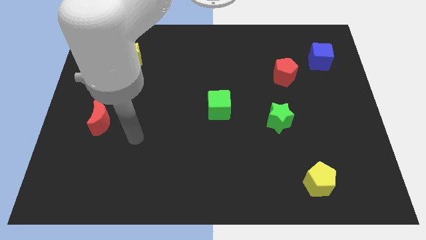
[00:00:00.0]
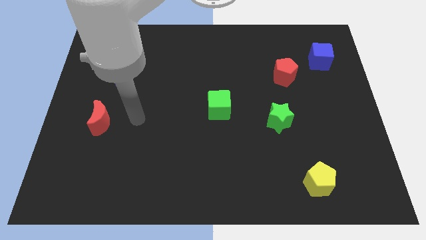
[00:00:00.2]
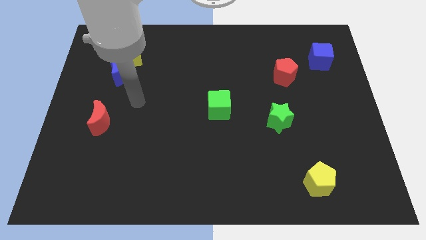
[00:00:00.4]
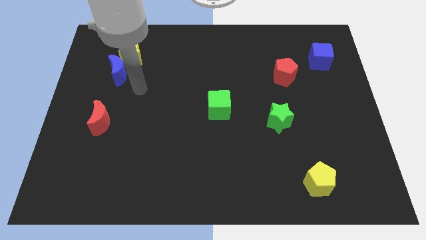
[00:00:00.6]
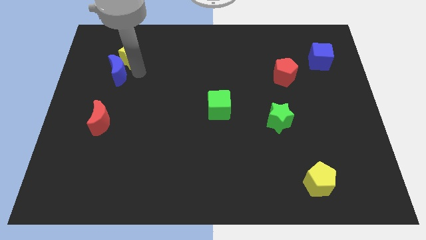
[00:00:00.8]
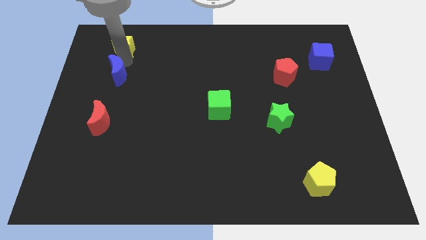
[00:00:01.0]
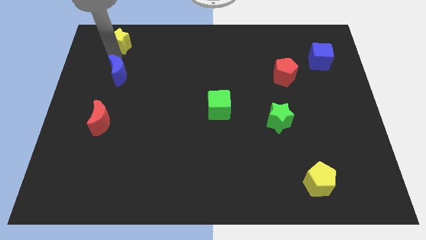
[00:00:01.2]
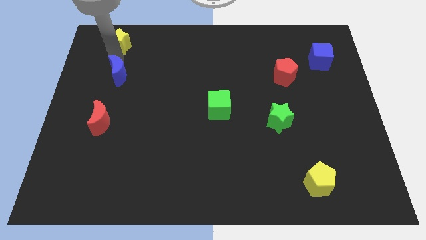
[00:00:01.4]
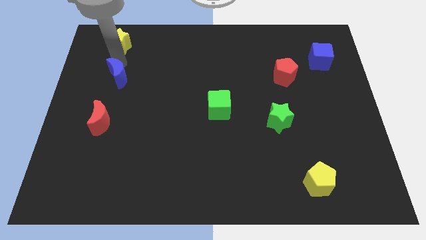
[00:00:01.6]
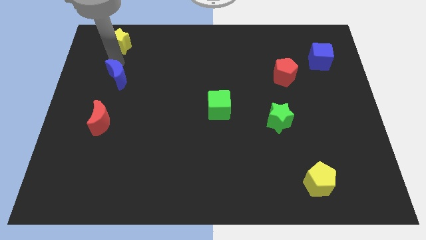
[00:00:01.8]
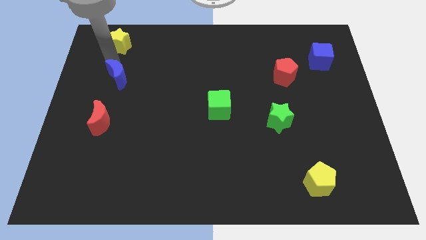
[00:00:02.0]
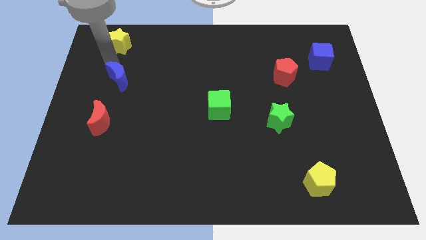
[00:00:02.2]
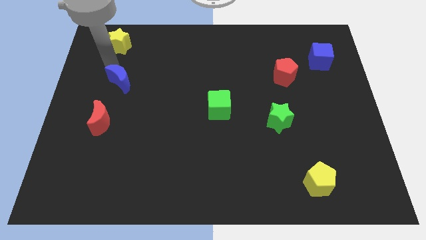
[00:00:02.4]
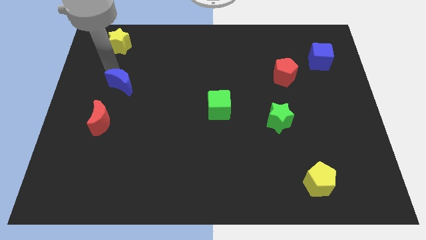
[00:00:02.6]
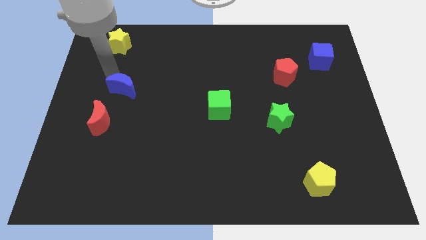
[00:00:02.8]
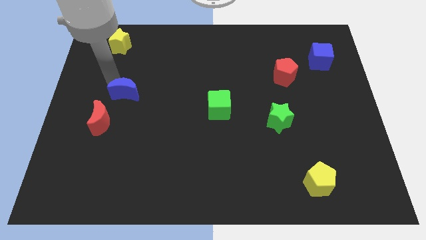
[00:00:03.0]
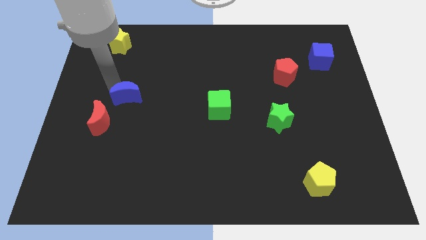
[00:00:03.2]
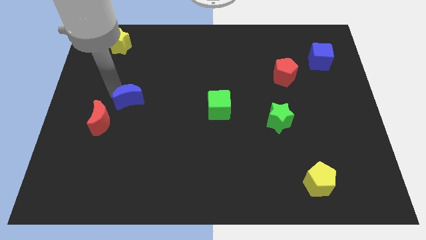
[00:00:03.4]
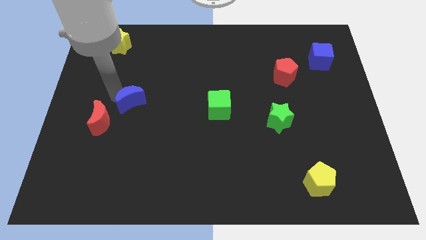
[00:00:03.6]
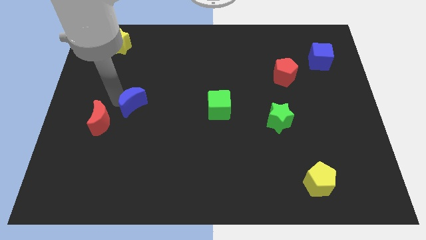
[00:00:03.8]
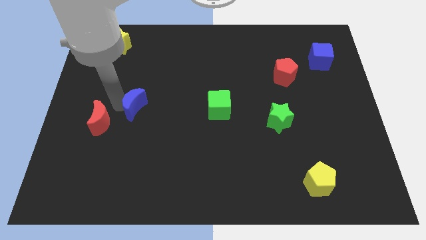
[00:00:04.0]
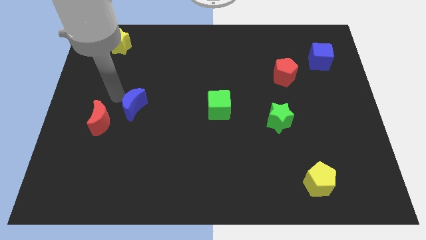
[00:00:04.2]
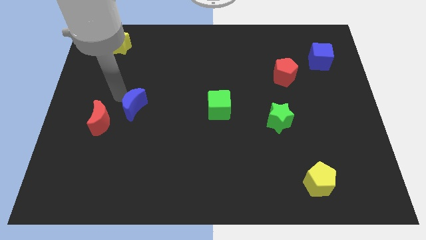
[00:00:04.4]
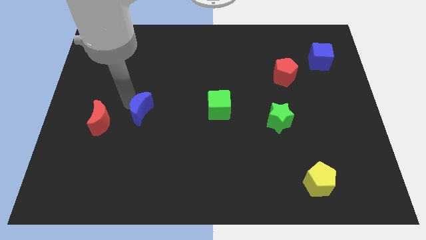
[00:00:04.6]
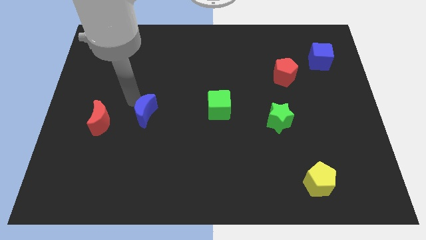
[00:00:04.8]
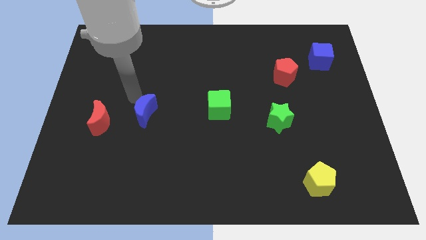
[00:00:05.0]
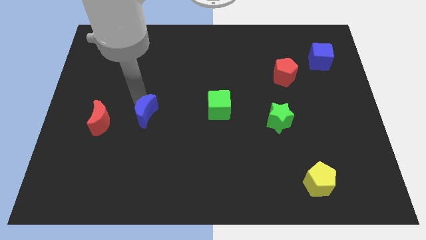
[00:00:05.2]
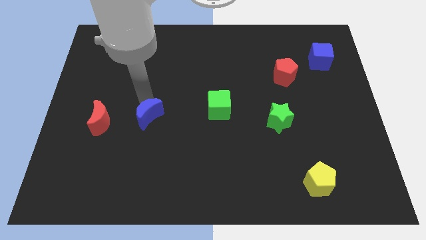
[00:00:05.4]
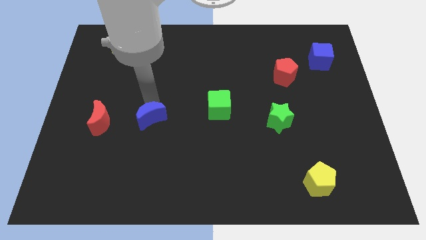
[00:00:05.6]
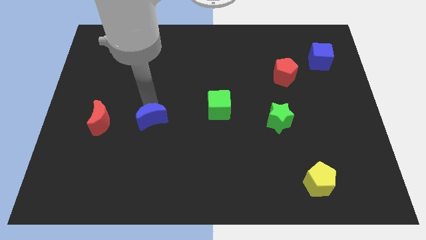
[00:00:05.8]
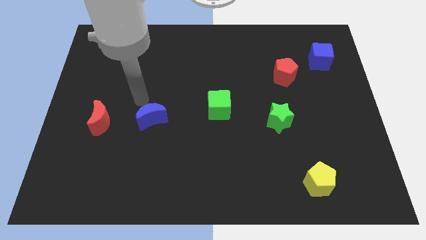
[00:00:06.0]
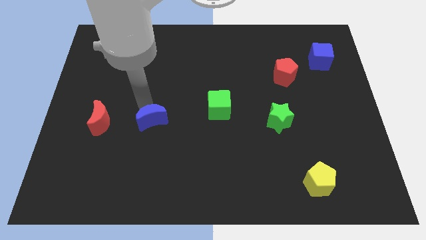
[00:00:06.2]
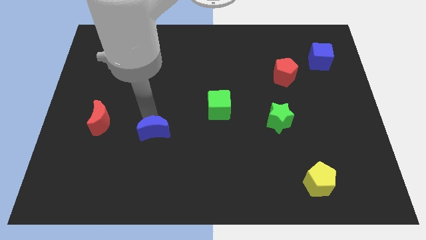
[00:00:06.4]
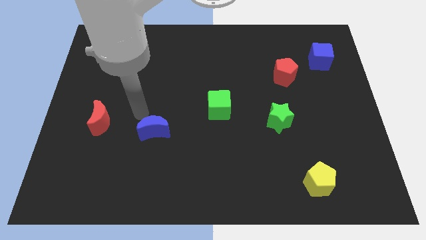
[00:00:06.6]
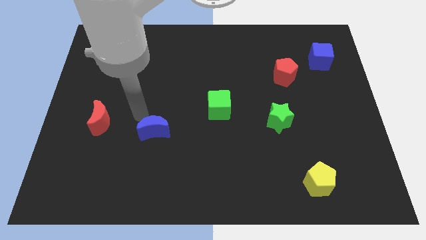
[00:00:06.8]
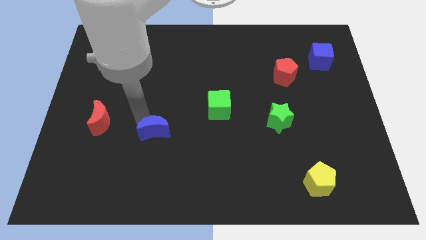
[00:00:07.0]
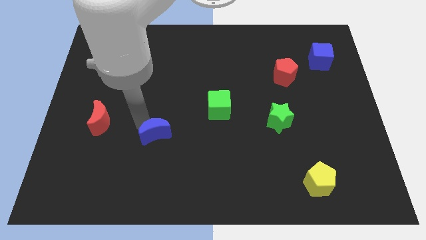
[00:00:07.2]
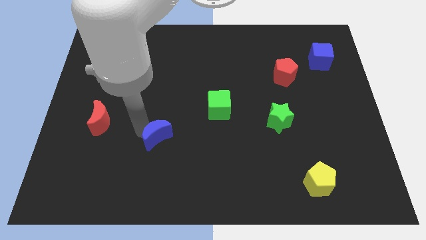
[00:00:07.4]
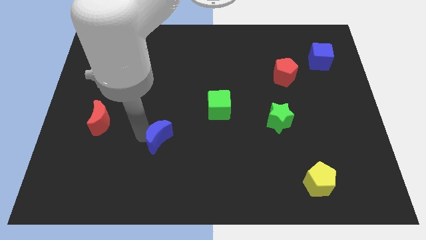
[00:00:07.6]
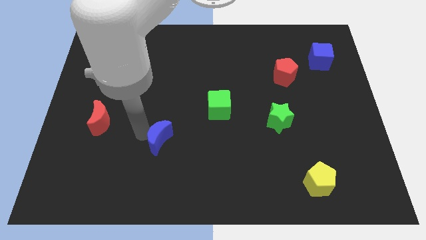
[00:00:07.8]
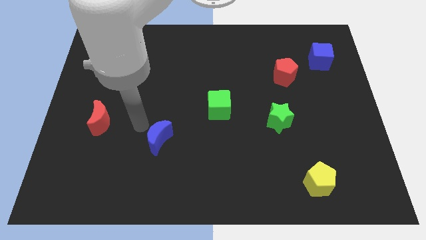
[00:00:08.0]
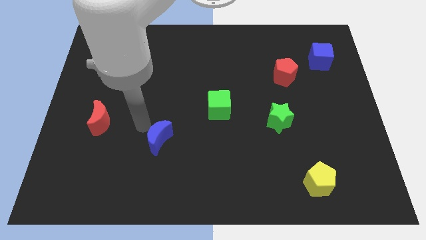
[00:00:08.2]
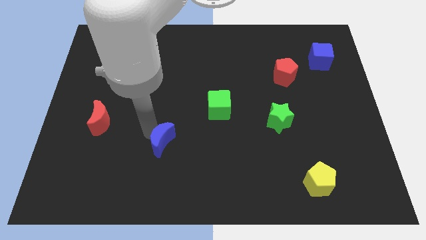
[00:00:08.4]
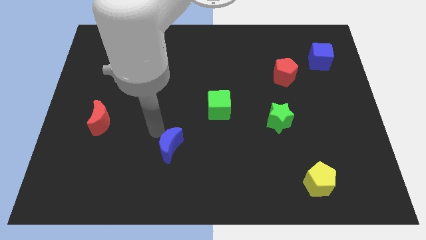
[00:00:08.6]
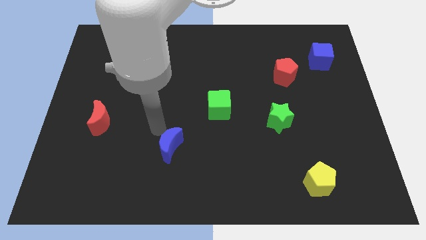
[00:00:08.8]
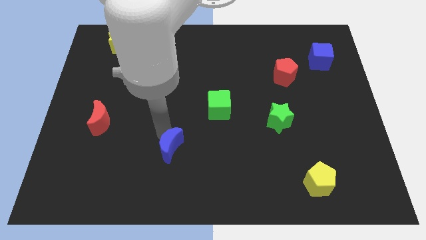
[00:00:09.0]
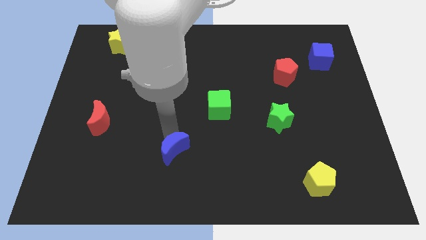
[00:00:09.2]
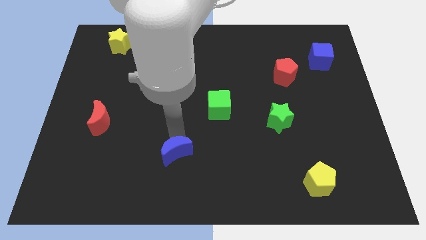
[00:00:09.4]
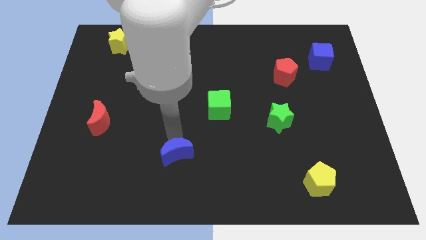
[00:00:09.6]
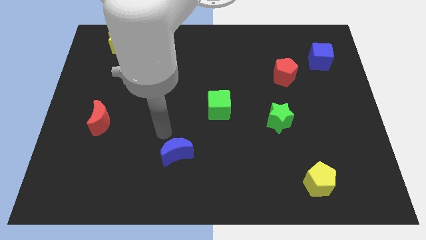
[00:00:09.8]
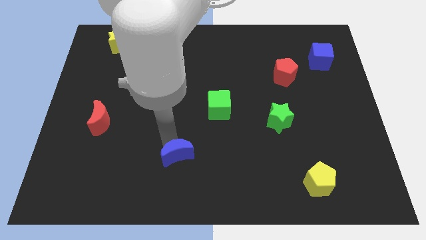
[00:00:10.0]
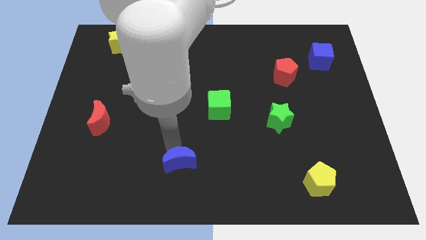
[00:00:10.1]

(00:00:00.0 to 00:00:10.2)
push the blue moon to the bottom

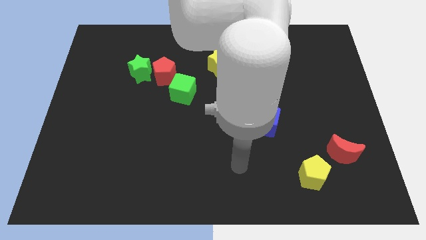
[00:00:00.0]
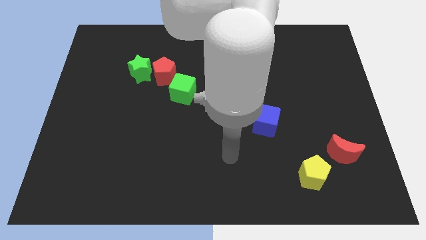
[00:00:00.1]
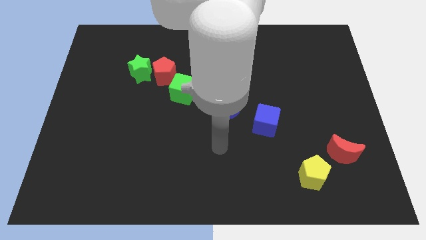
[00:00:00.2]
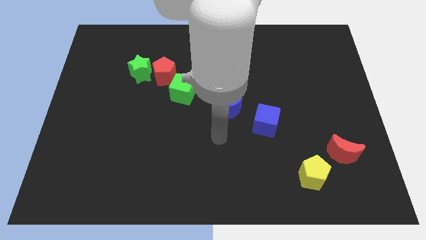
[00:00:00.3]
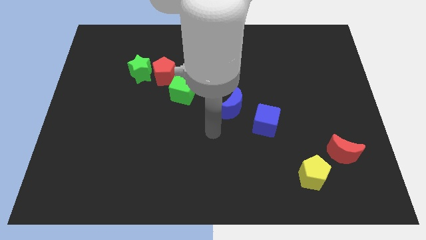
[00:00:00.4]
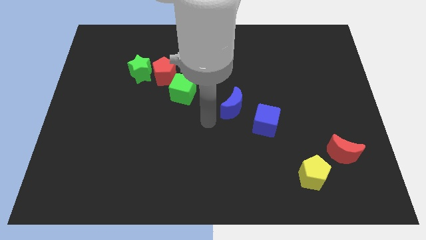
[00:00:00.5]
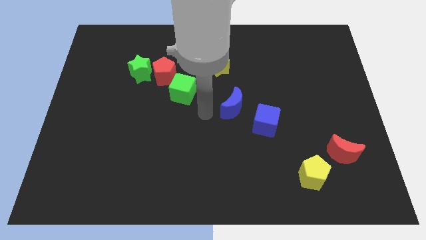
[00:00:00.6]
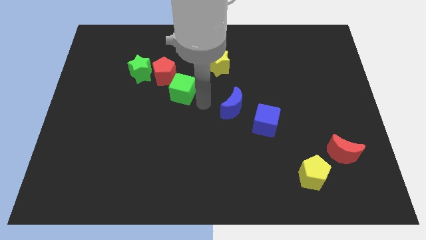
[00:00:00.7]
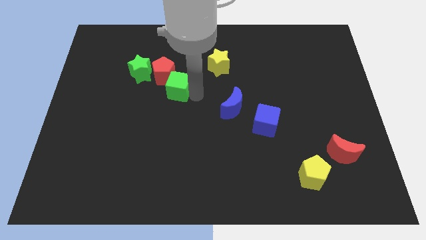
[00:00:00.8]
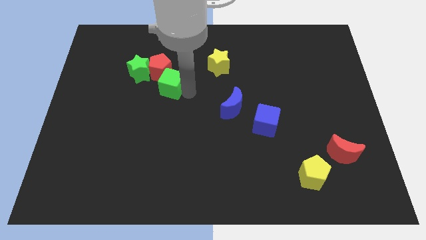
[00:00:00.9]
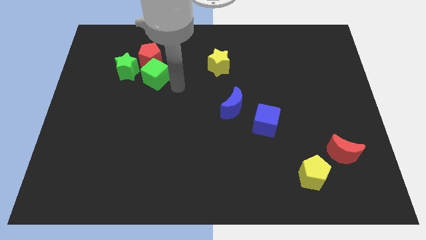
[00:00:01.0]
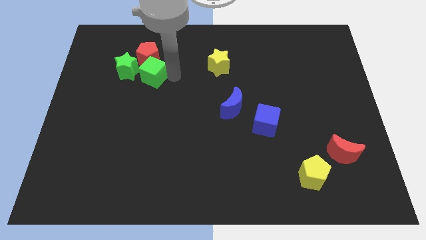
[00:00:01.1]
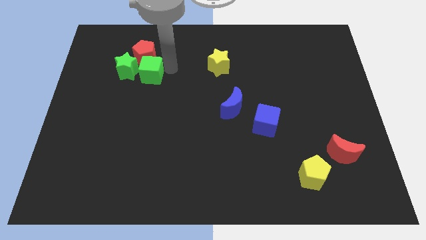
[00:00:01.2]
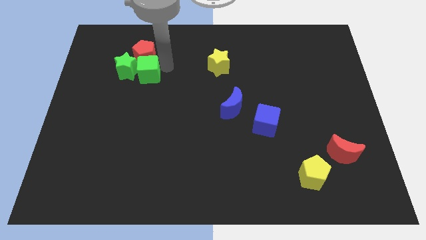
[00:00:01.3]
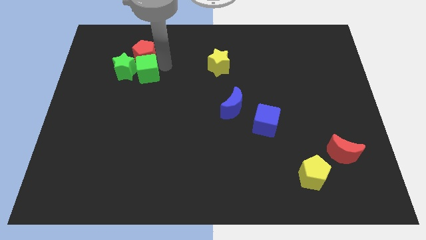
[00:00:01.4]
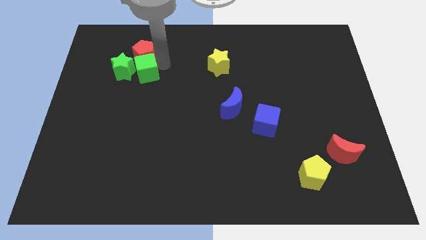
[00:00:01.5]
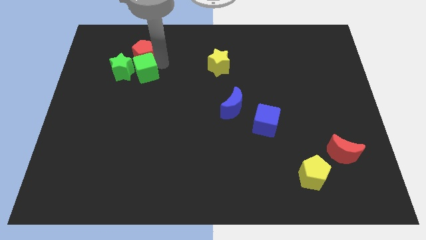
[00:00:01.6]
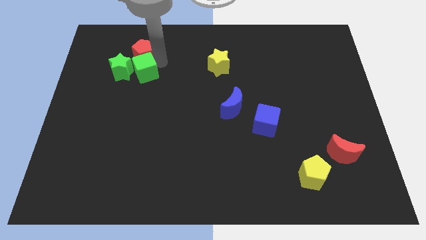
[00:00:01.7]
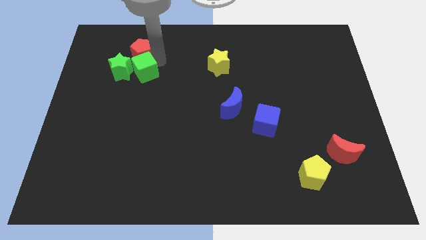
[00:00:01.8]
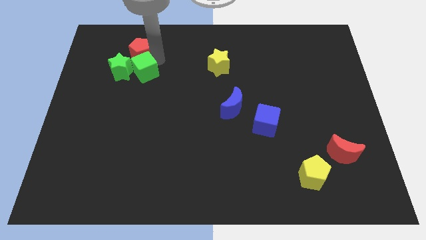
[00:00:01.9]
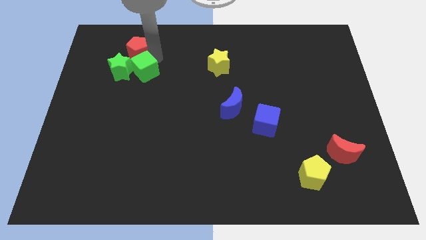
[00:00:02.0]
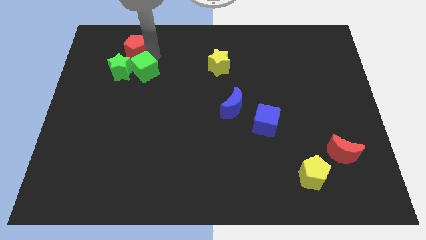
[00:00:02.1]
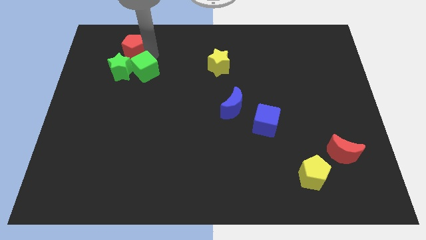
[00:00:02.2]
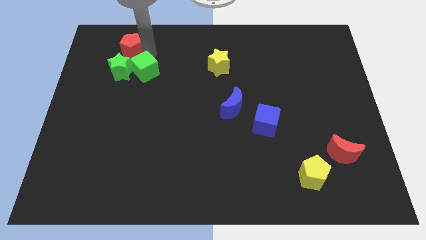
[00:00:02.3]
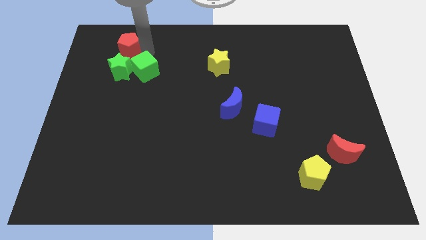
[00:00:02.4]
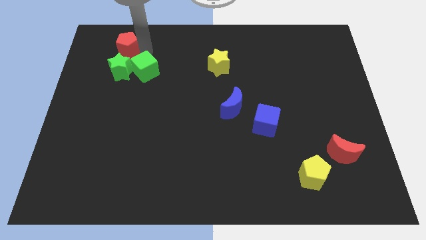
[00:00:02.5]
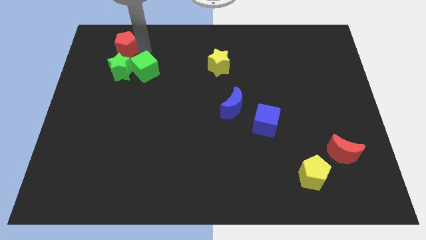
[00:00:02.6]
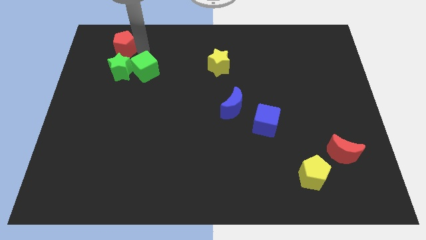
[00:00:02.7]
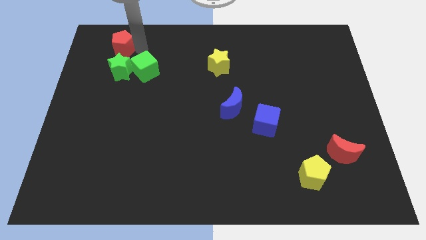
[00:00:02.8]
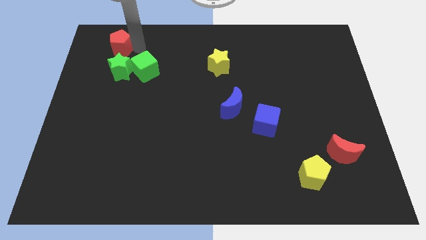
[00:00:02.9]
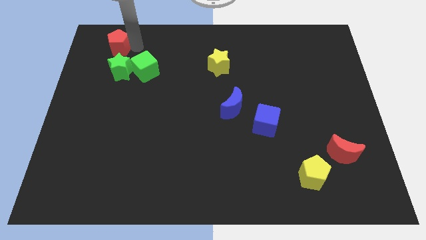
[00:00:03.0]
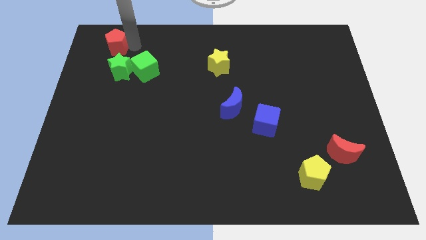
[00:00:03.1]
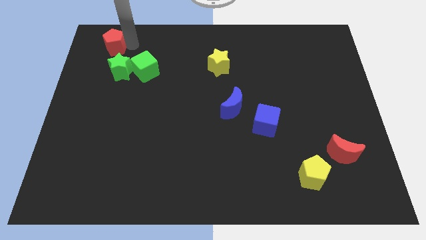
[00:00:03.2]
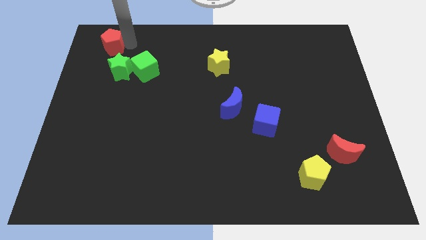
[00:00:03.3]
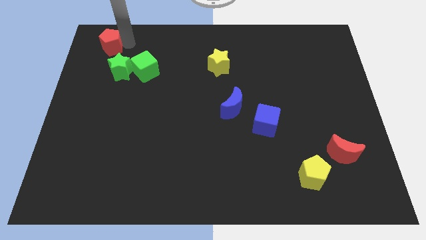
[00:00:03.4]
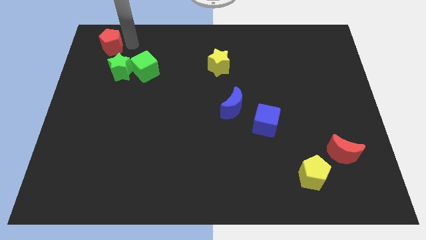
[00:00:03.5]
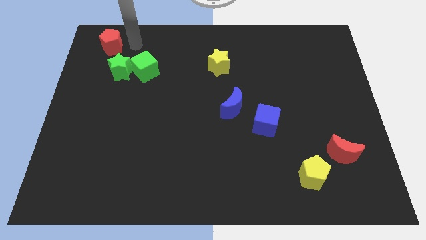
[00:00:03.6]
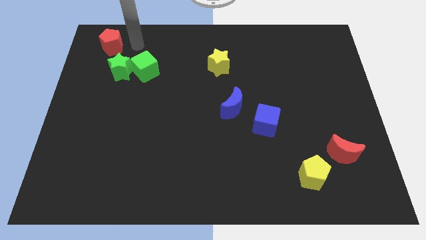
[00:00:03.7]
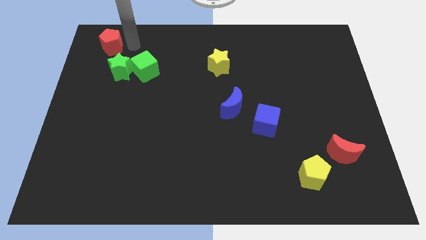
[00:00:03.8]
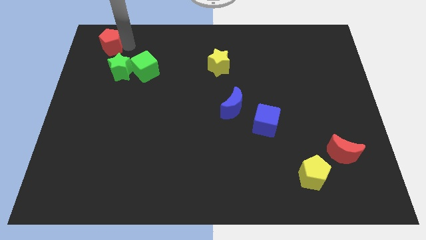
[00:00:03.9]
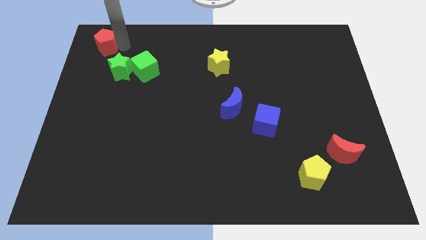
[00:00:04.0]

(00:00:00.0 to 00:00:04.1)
push the red pentagon to the top left of the board
